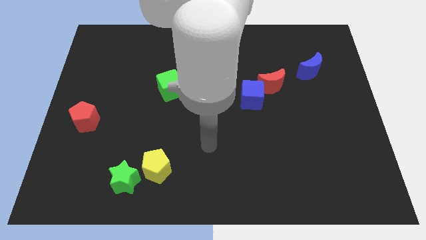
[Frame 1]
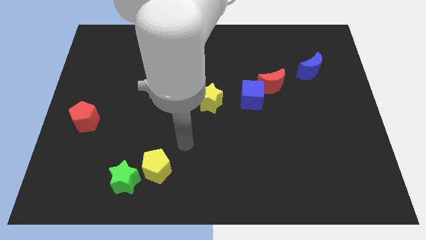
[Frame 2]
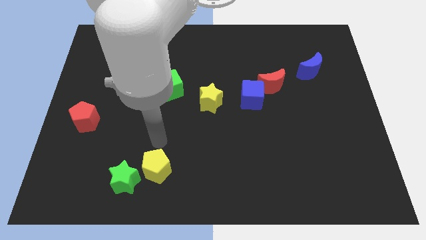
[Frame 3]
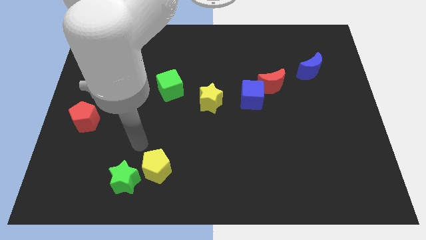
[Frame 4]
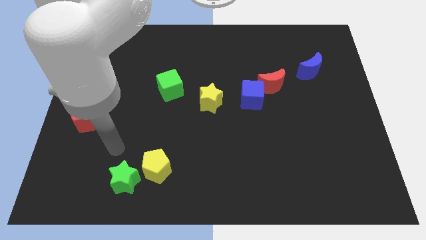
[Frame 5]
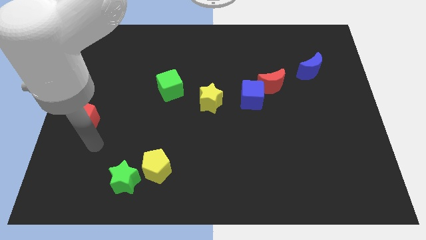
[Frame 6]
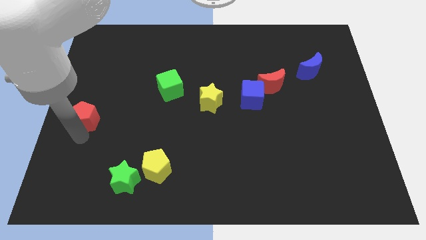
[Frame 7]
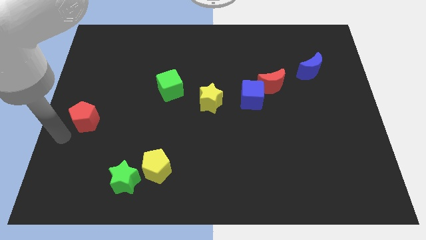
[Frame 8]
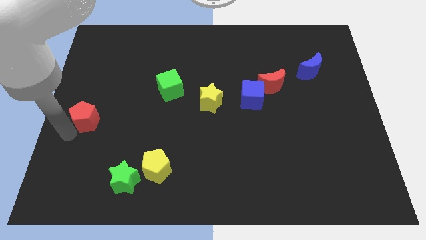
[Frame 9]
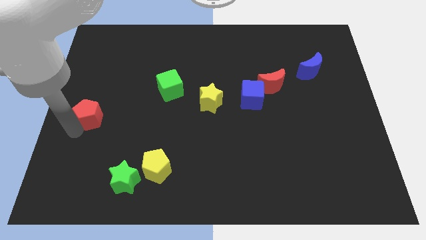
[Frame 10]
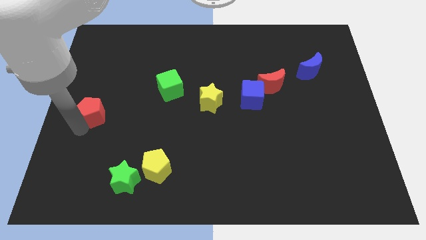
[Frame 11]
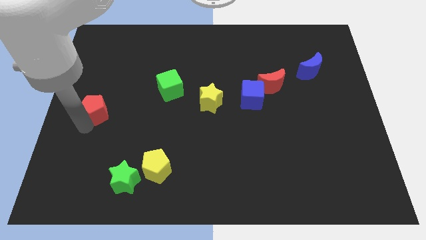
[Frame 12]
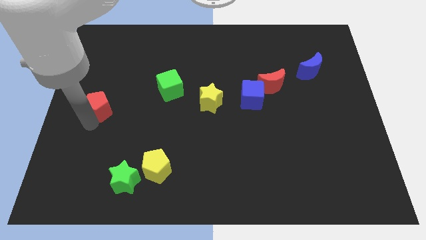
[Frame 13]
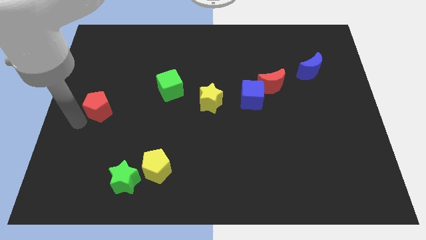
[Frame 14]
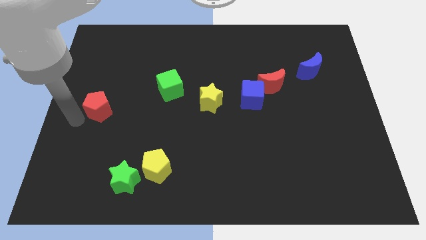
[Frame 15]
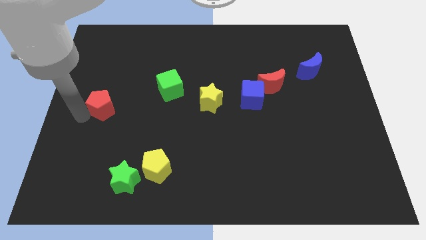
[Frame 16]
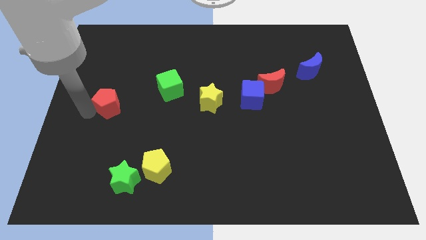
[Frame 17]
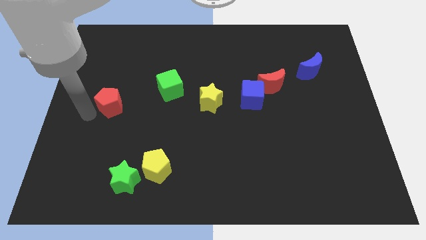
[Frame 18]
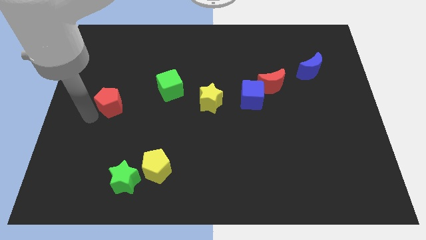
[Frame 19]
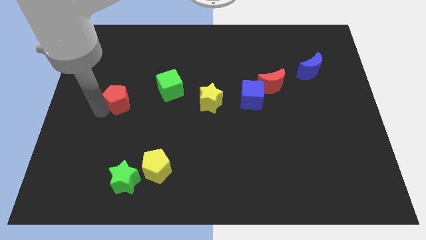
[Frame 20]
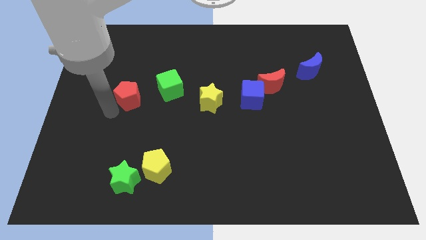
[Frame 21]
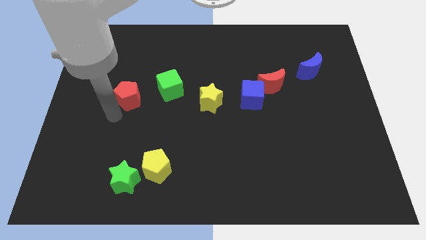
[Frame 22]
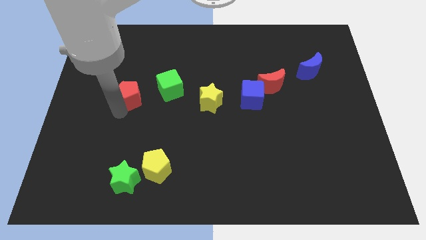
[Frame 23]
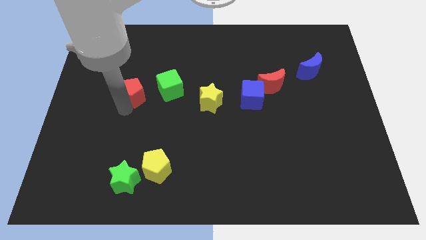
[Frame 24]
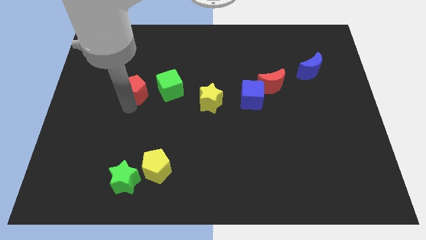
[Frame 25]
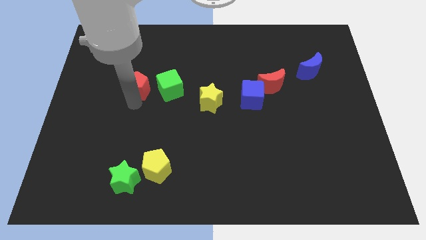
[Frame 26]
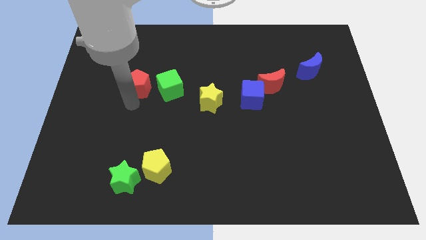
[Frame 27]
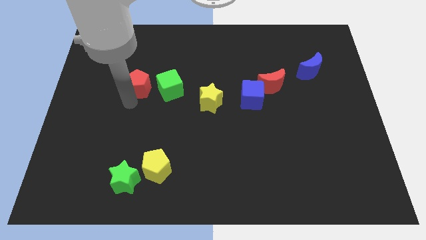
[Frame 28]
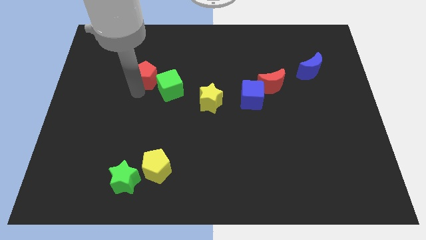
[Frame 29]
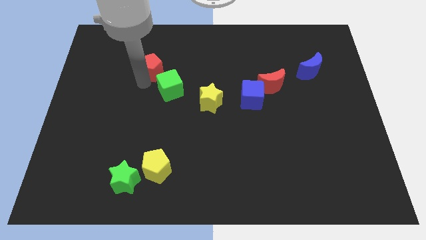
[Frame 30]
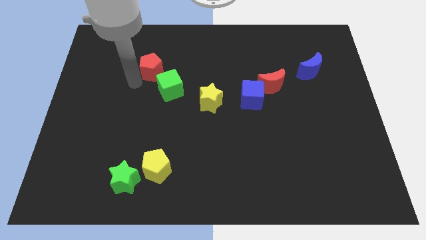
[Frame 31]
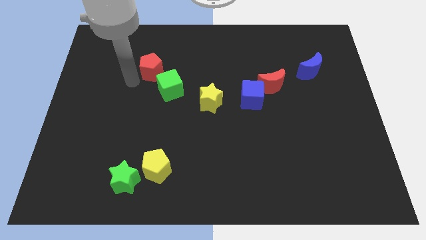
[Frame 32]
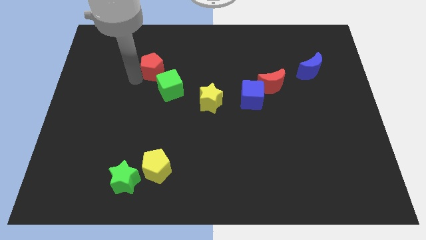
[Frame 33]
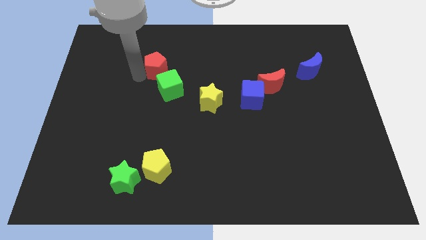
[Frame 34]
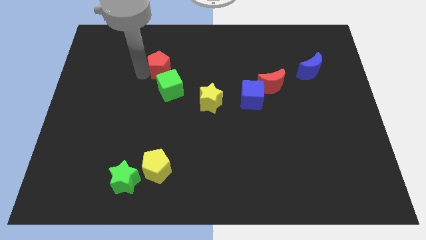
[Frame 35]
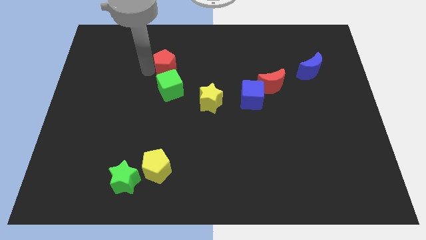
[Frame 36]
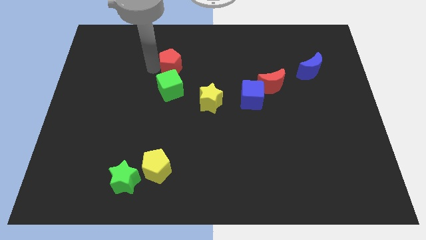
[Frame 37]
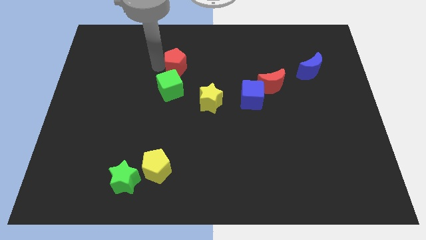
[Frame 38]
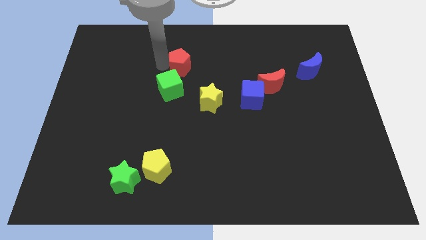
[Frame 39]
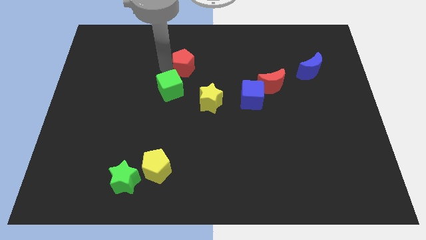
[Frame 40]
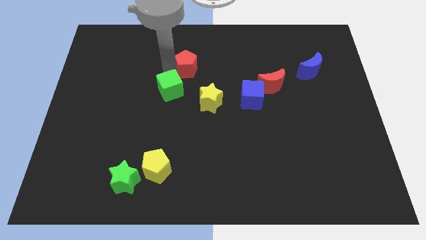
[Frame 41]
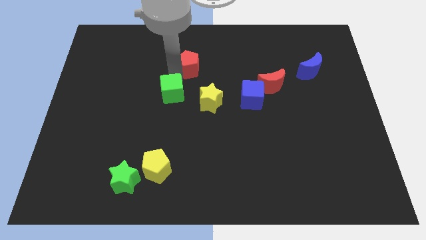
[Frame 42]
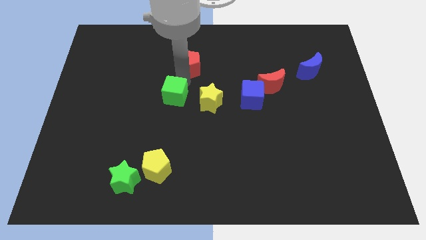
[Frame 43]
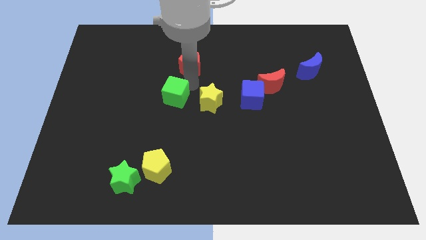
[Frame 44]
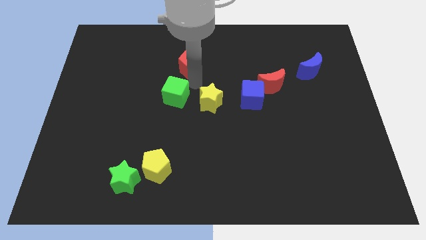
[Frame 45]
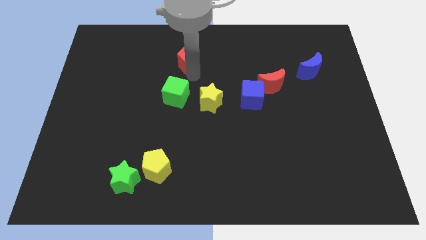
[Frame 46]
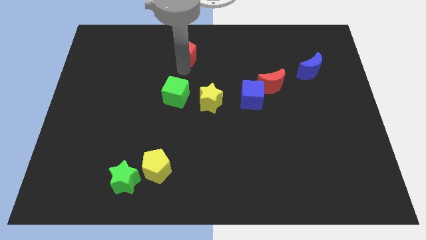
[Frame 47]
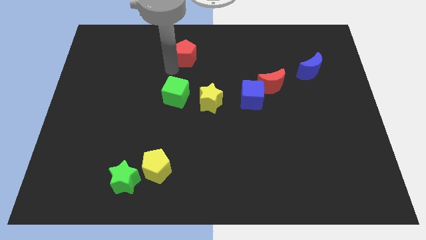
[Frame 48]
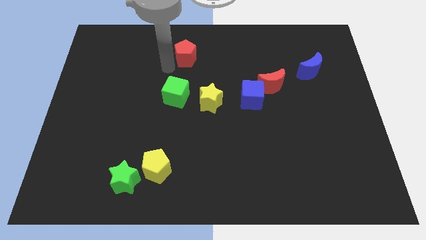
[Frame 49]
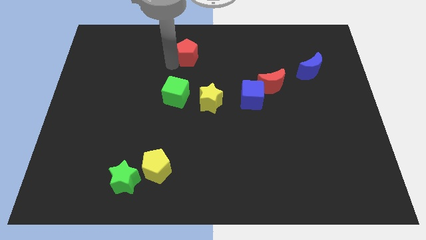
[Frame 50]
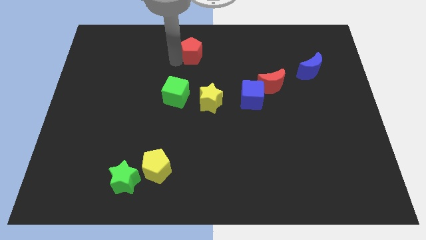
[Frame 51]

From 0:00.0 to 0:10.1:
slide the red pentagon to the towards your base

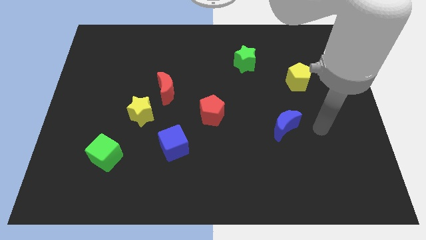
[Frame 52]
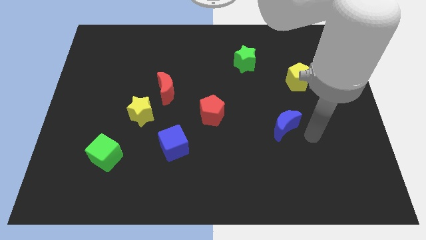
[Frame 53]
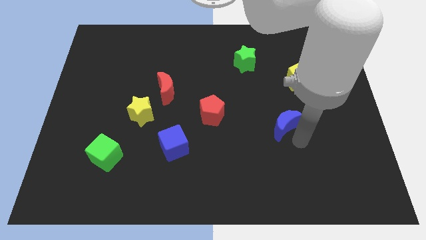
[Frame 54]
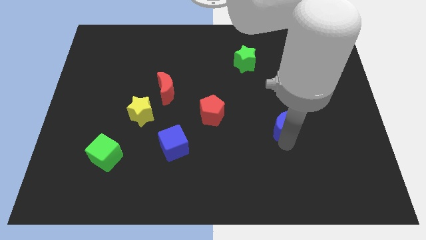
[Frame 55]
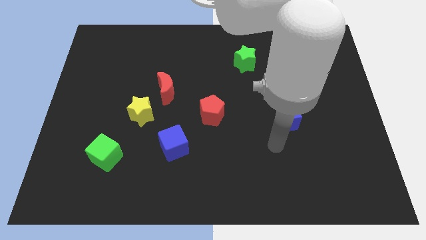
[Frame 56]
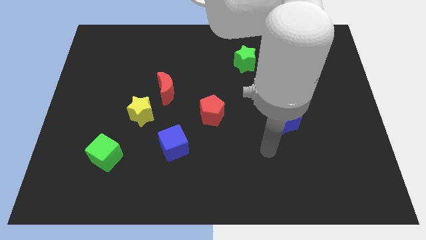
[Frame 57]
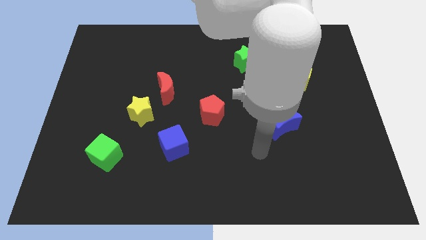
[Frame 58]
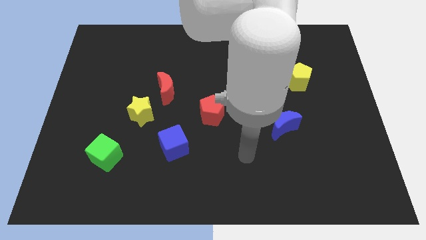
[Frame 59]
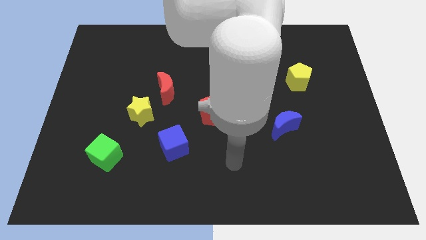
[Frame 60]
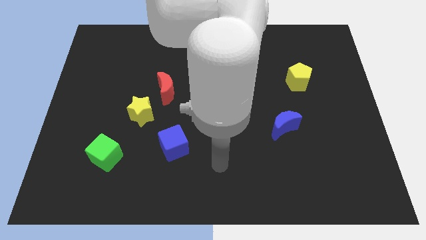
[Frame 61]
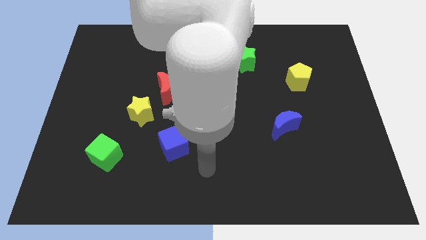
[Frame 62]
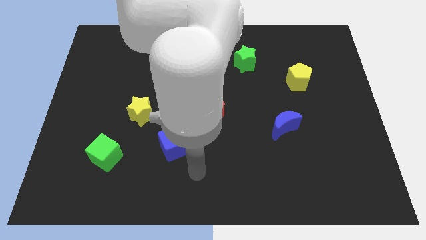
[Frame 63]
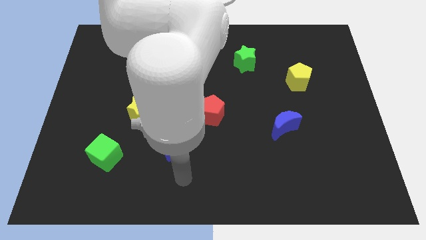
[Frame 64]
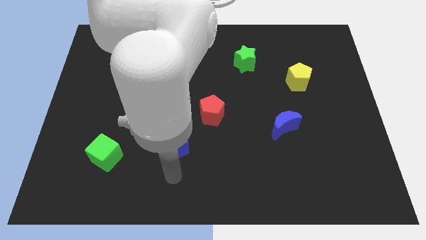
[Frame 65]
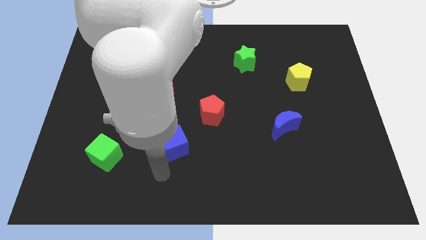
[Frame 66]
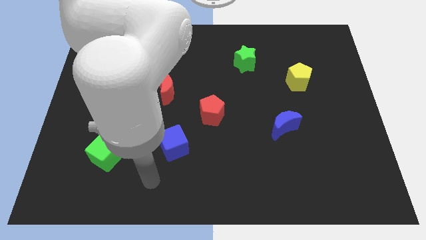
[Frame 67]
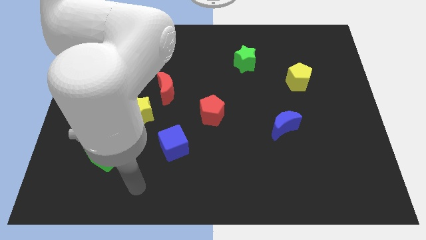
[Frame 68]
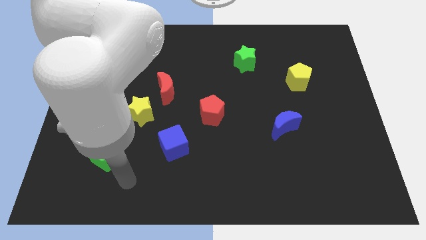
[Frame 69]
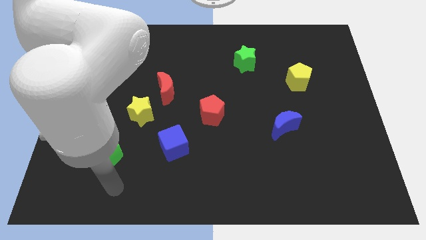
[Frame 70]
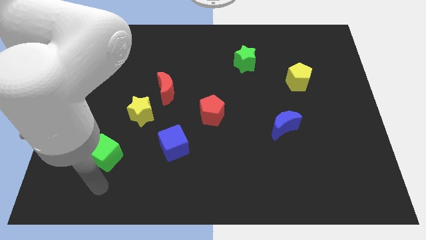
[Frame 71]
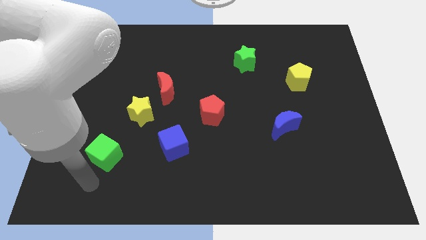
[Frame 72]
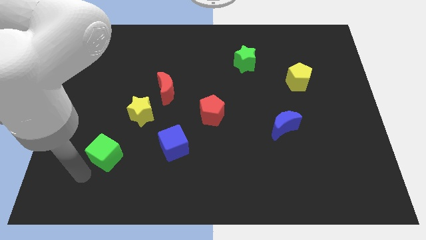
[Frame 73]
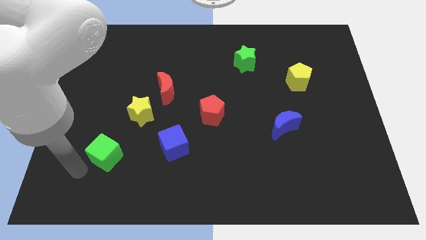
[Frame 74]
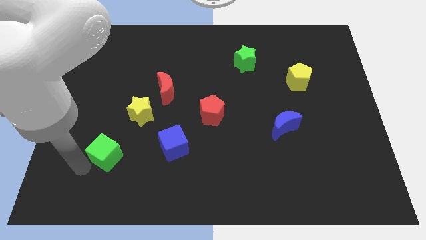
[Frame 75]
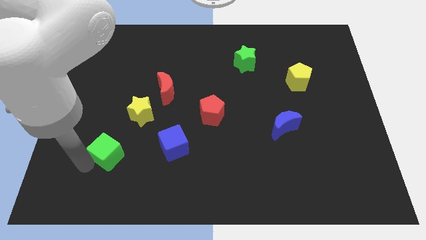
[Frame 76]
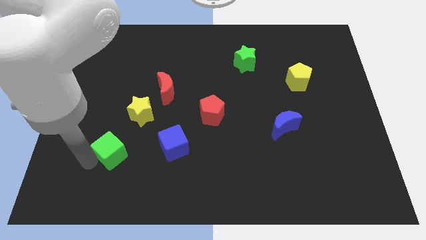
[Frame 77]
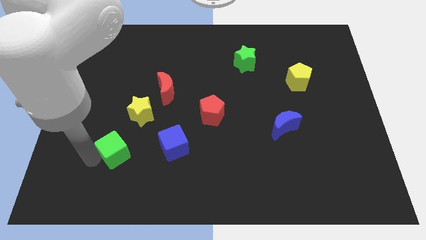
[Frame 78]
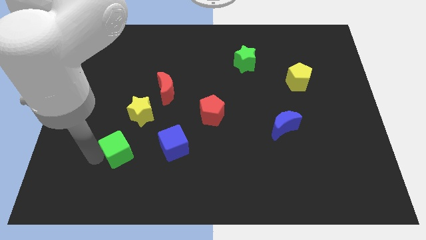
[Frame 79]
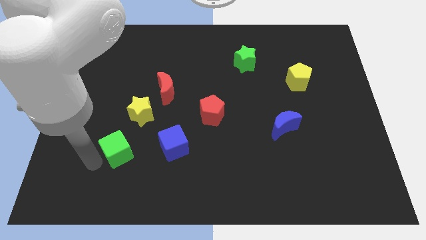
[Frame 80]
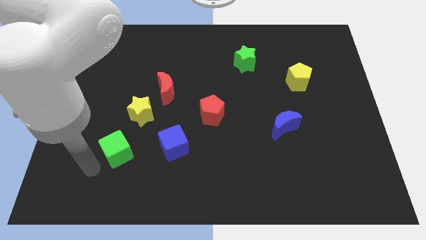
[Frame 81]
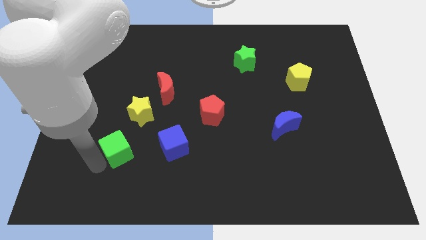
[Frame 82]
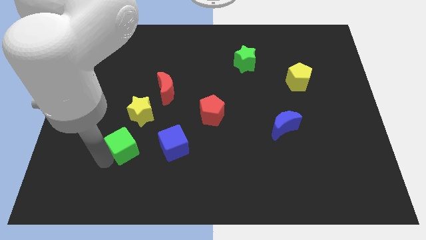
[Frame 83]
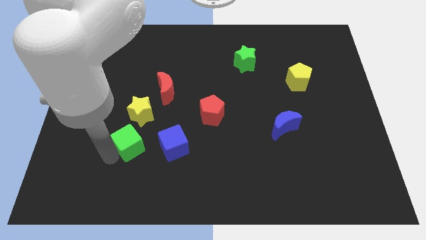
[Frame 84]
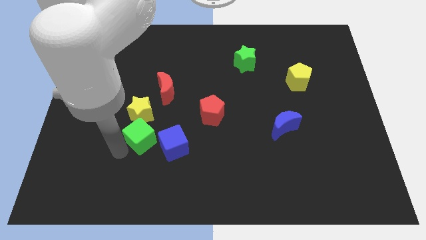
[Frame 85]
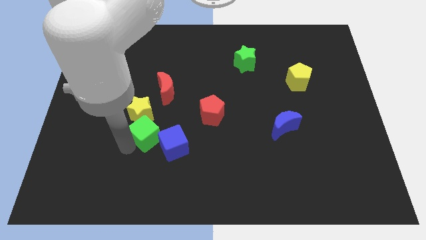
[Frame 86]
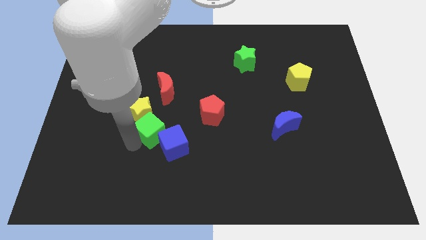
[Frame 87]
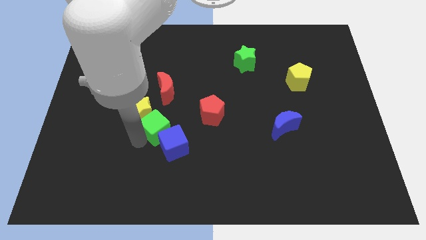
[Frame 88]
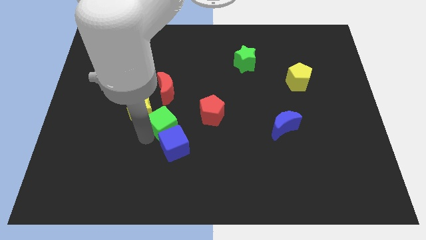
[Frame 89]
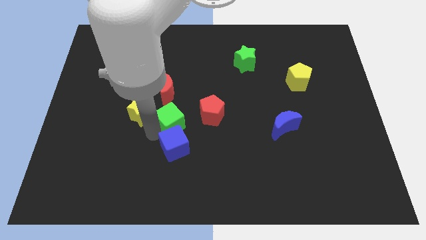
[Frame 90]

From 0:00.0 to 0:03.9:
move the green cube to the middle of the board
